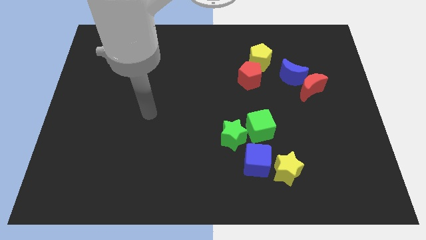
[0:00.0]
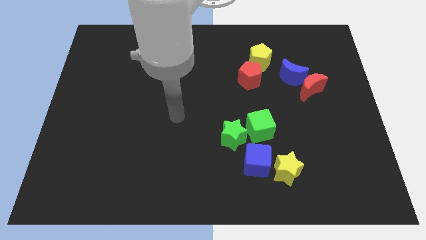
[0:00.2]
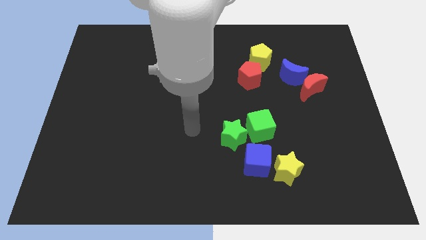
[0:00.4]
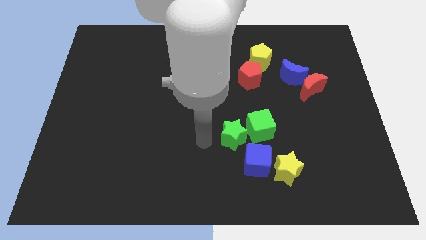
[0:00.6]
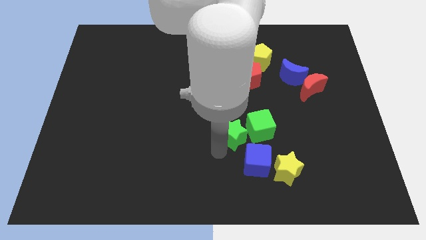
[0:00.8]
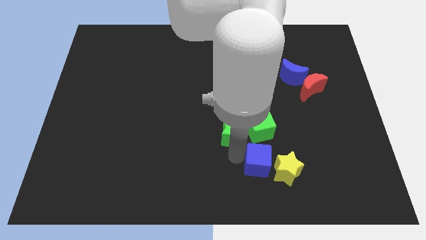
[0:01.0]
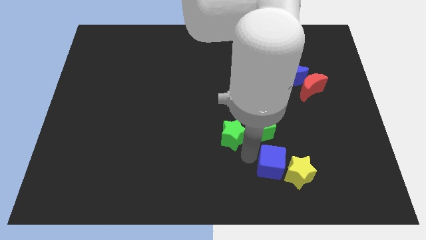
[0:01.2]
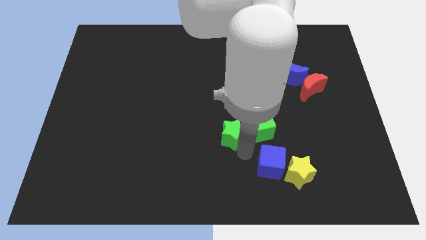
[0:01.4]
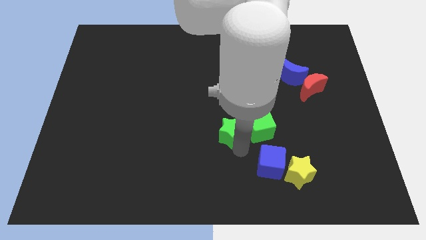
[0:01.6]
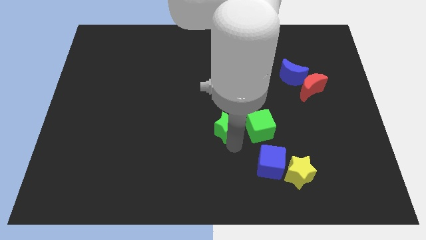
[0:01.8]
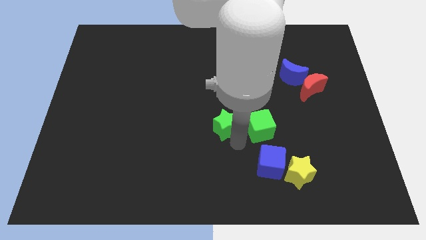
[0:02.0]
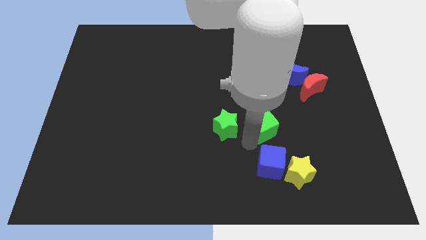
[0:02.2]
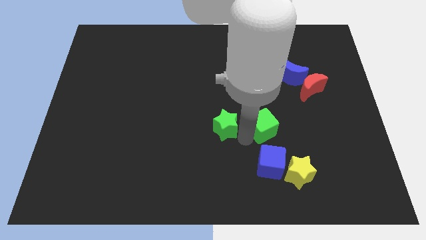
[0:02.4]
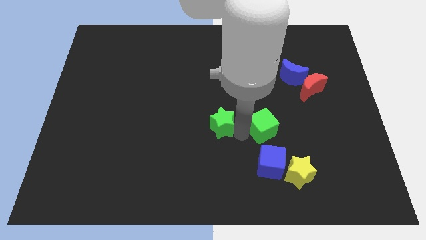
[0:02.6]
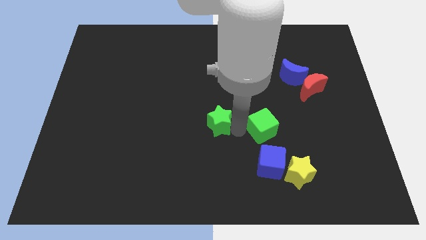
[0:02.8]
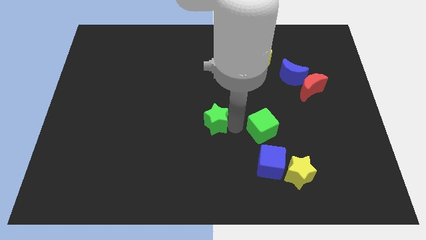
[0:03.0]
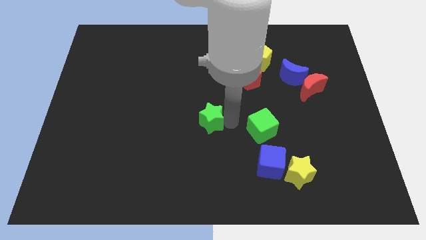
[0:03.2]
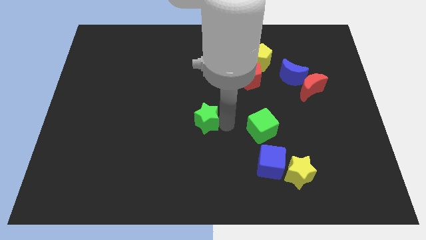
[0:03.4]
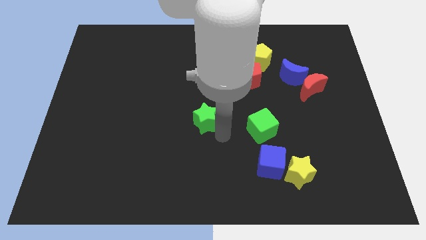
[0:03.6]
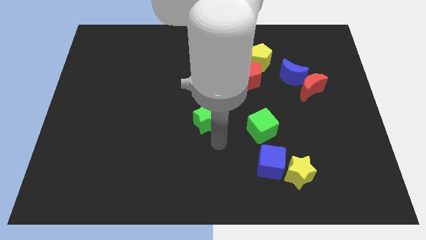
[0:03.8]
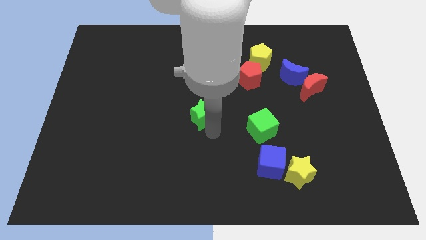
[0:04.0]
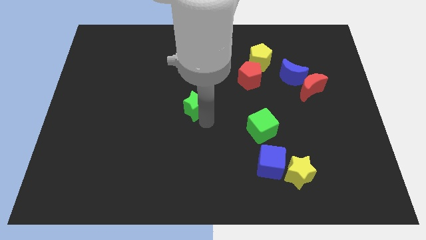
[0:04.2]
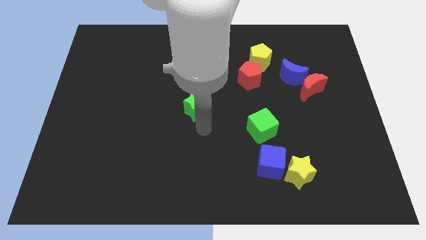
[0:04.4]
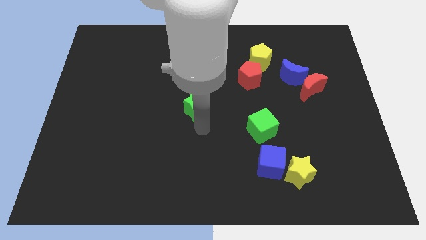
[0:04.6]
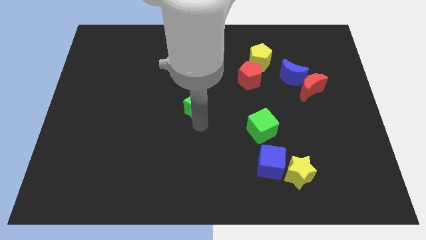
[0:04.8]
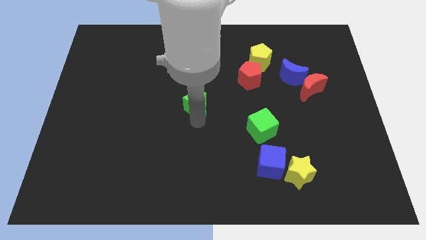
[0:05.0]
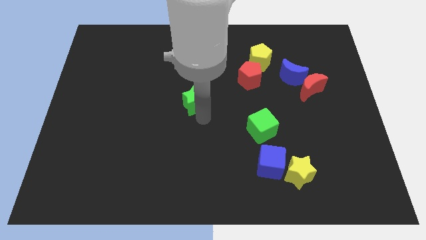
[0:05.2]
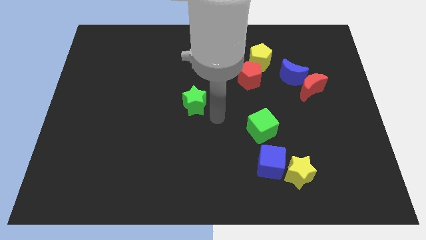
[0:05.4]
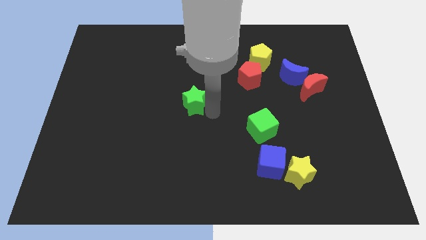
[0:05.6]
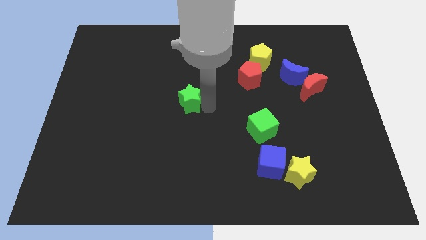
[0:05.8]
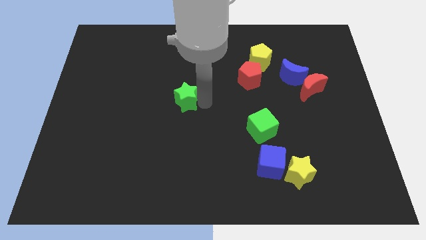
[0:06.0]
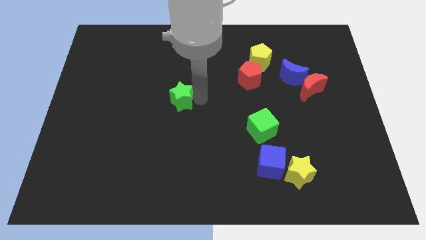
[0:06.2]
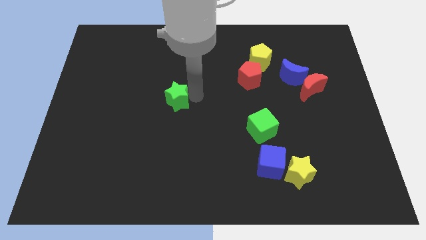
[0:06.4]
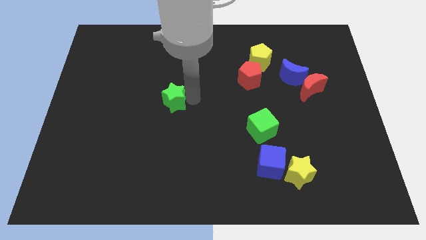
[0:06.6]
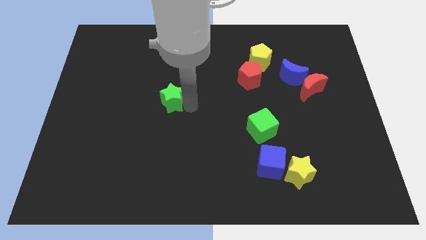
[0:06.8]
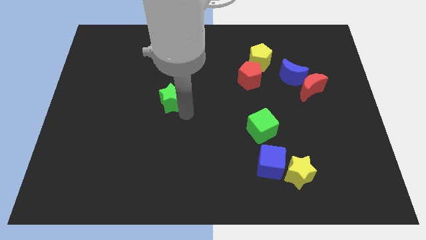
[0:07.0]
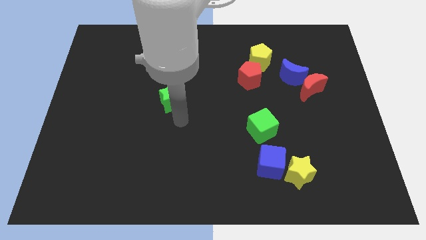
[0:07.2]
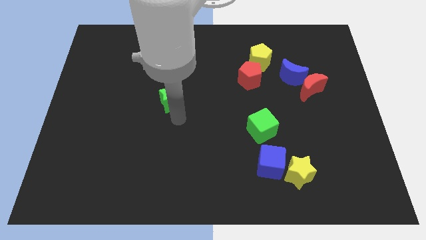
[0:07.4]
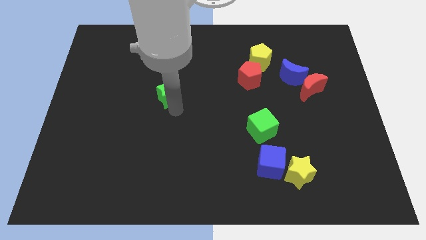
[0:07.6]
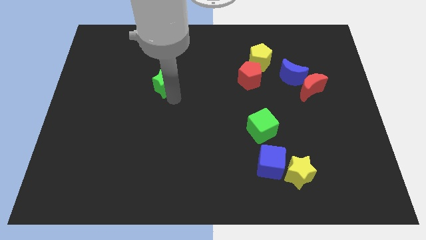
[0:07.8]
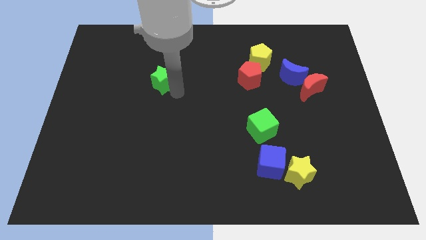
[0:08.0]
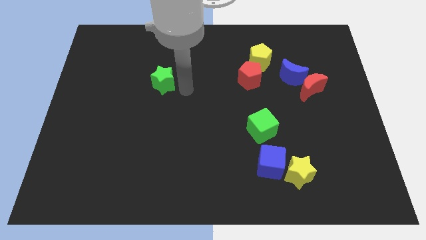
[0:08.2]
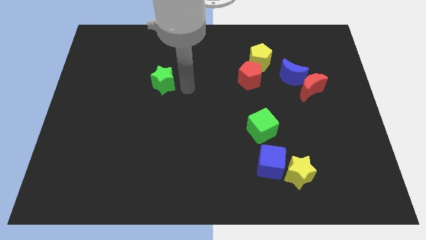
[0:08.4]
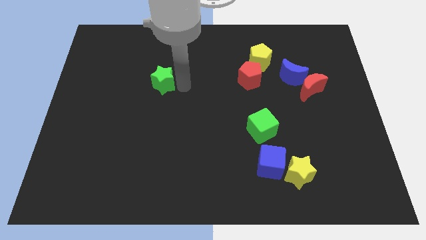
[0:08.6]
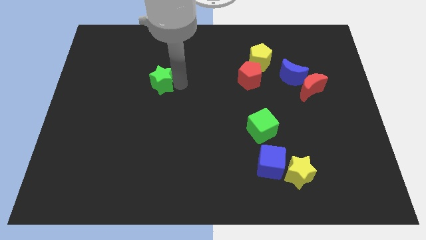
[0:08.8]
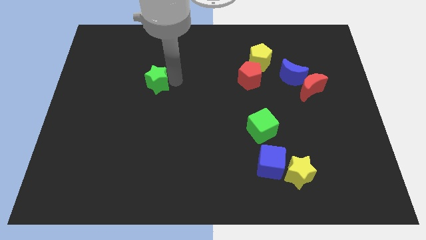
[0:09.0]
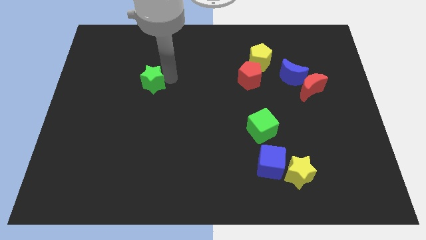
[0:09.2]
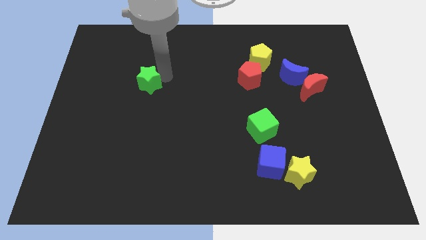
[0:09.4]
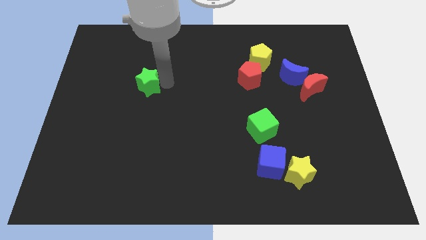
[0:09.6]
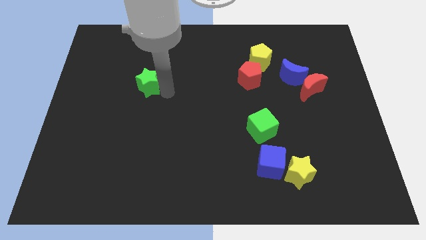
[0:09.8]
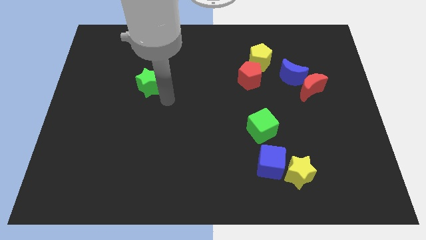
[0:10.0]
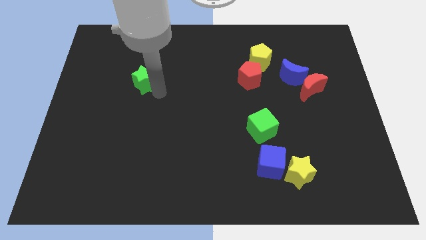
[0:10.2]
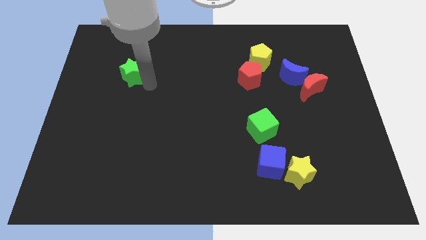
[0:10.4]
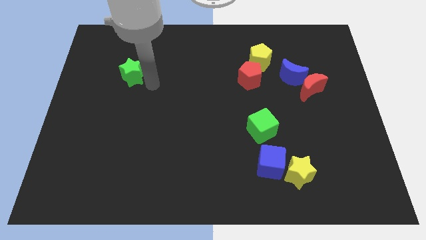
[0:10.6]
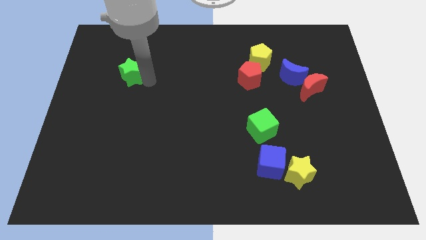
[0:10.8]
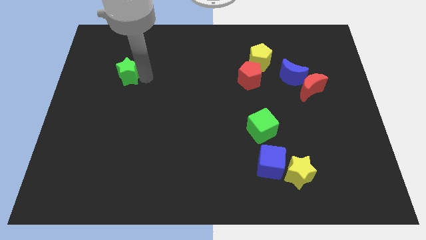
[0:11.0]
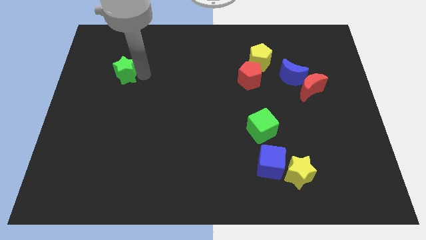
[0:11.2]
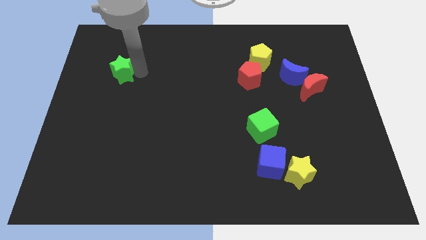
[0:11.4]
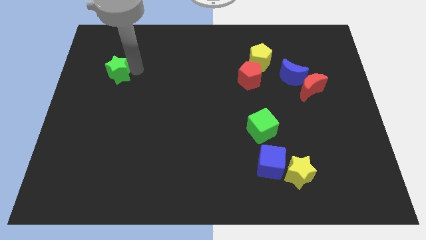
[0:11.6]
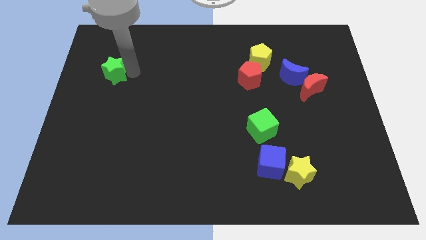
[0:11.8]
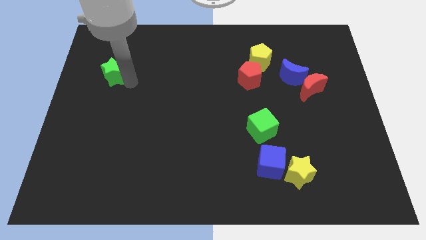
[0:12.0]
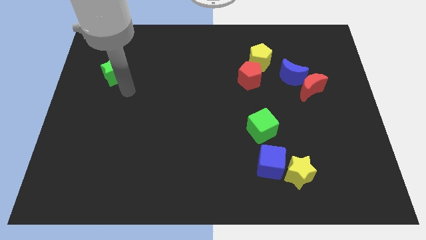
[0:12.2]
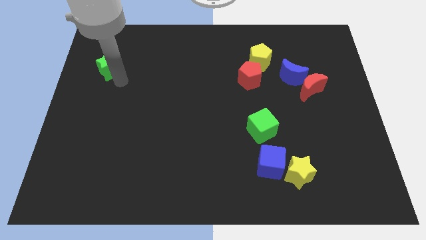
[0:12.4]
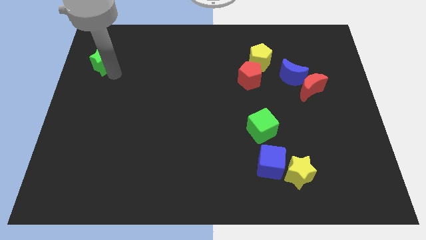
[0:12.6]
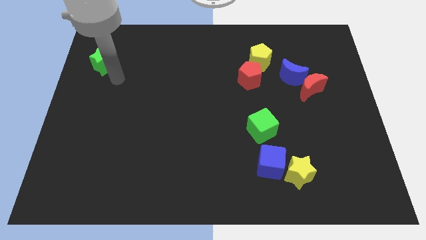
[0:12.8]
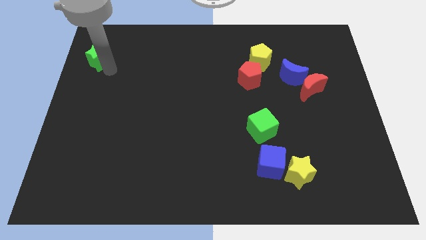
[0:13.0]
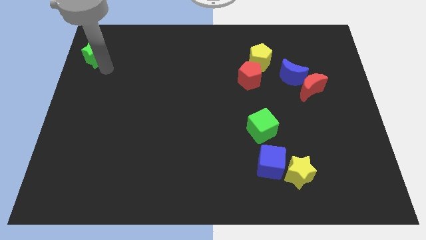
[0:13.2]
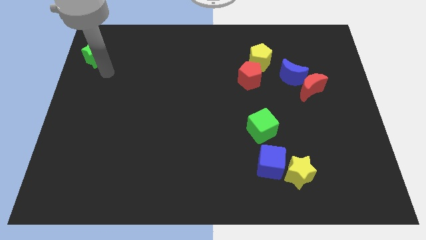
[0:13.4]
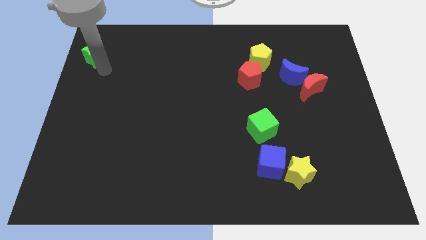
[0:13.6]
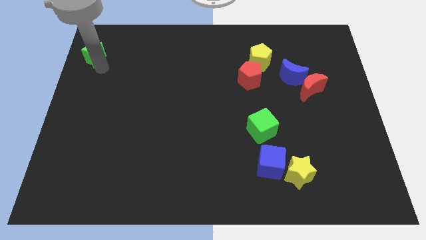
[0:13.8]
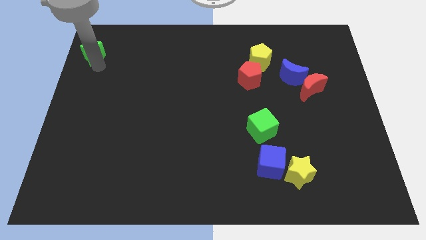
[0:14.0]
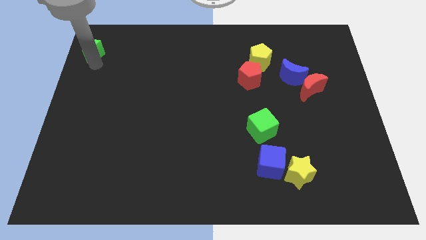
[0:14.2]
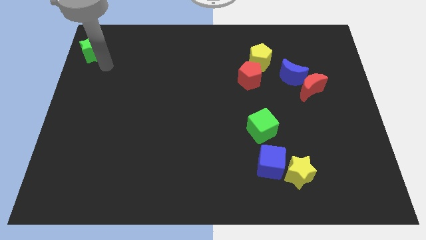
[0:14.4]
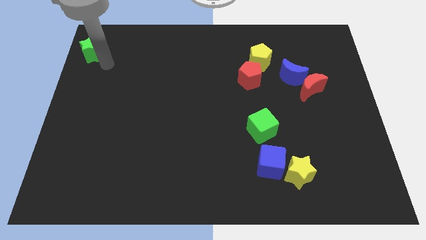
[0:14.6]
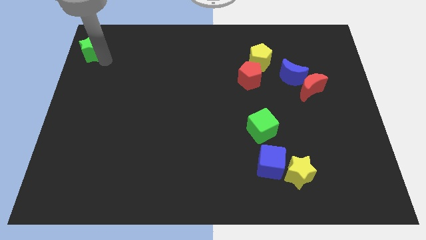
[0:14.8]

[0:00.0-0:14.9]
slide the green star to the top left of the board
